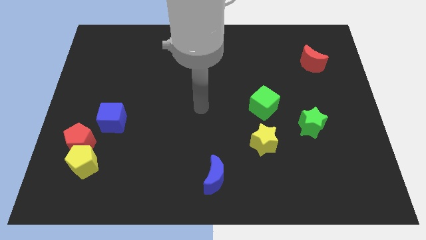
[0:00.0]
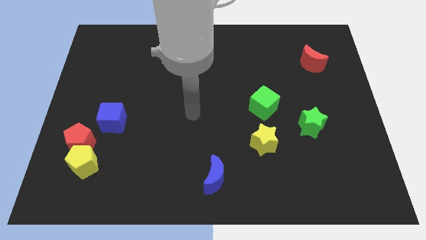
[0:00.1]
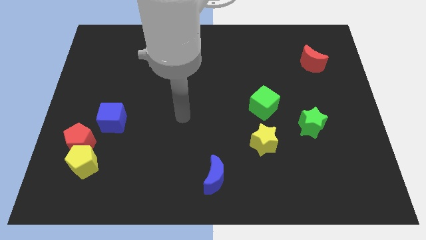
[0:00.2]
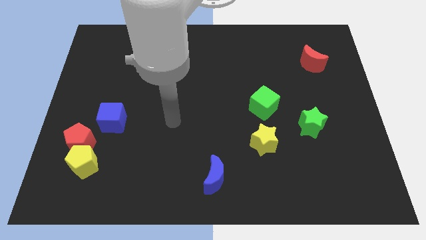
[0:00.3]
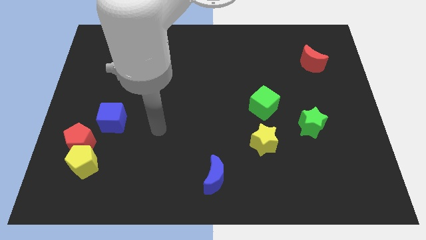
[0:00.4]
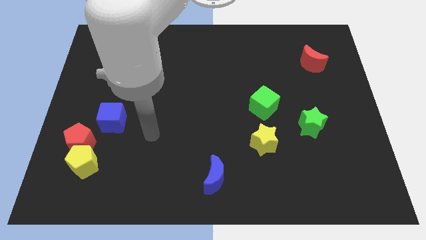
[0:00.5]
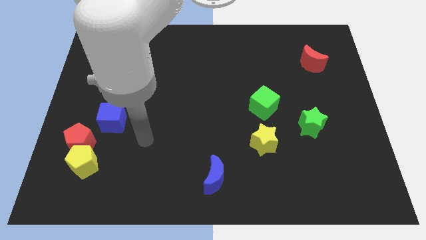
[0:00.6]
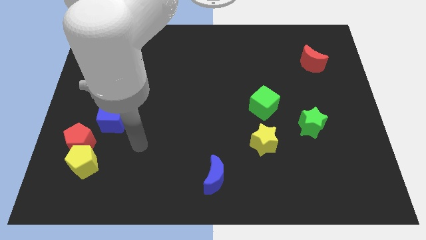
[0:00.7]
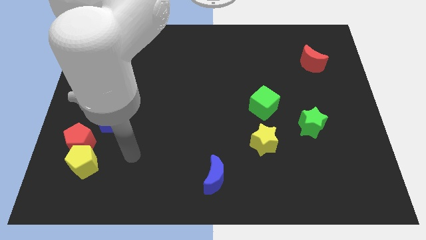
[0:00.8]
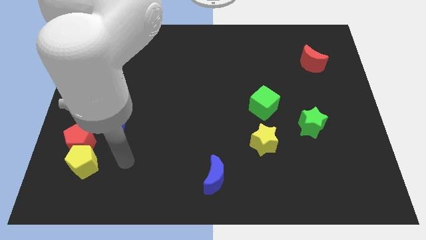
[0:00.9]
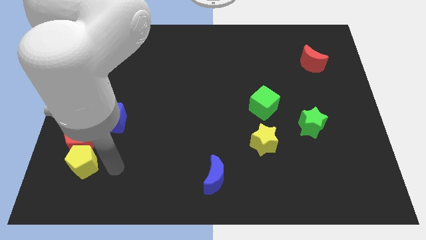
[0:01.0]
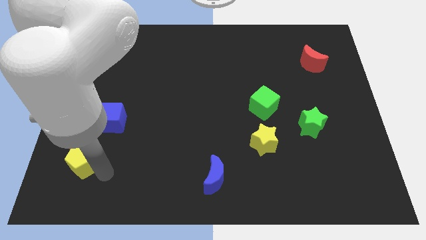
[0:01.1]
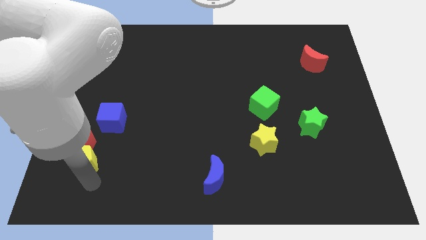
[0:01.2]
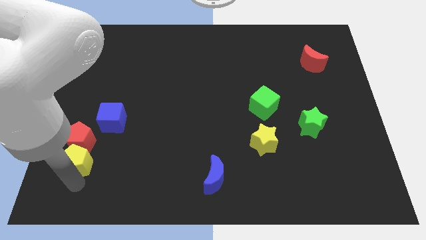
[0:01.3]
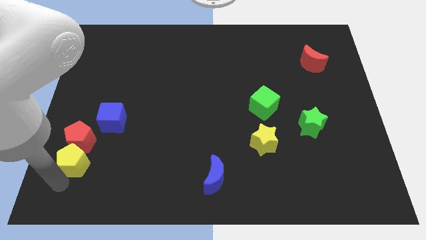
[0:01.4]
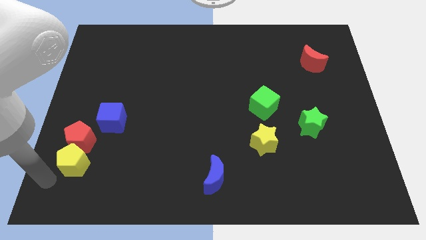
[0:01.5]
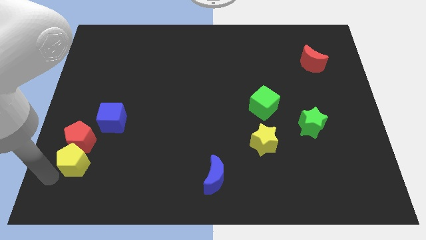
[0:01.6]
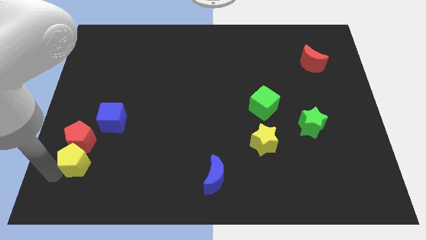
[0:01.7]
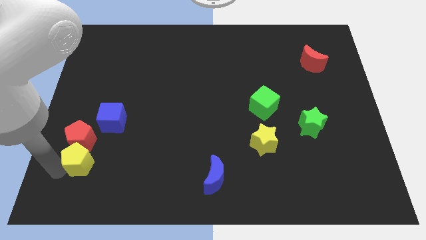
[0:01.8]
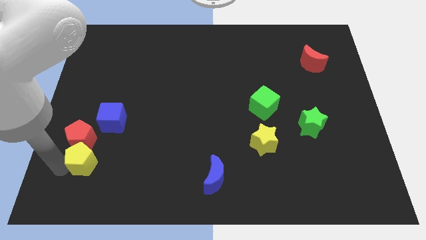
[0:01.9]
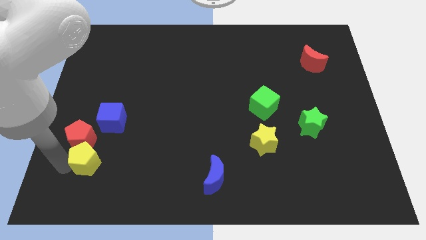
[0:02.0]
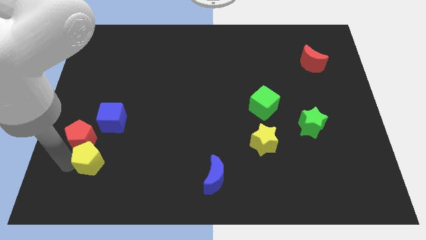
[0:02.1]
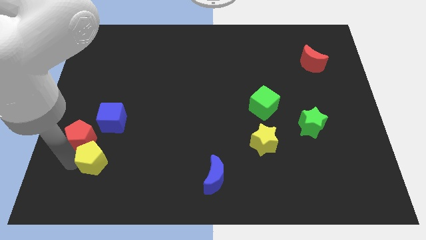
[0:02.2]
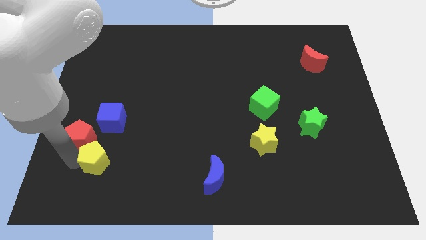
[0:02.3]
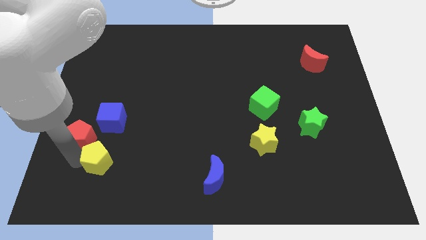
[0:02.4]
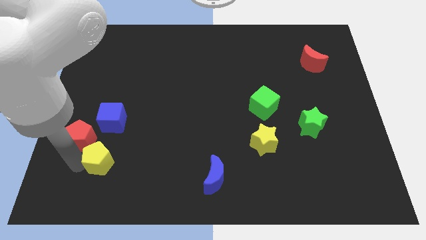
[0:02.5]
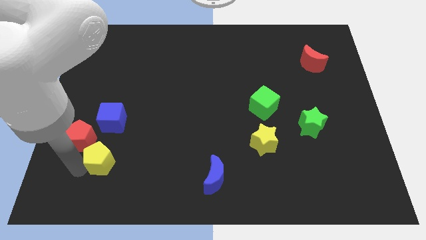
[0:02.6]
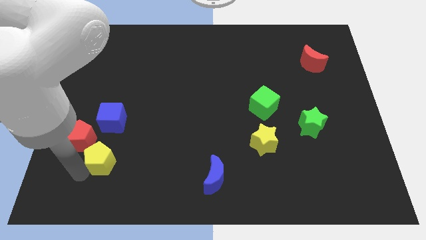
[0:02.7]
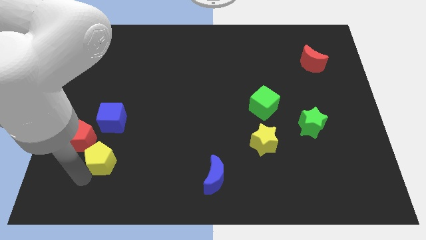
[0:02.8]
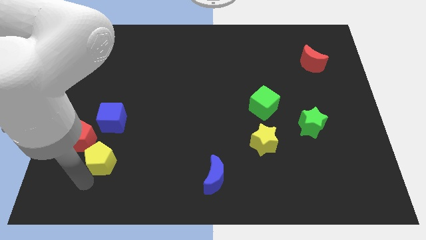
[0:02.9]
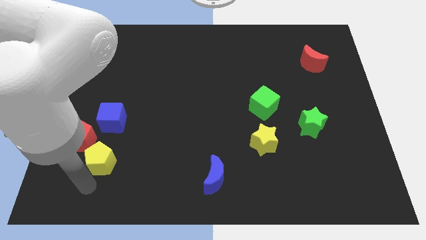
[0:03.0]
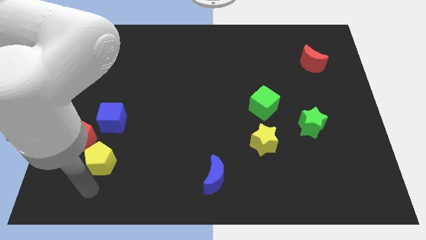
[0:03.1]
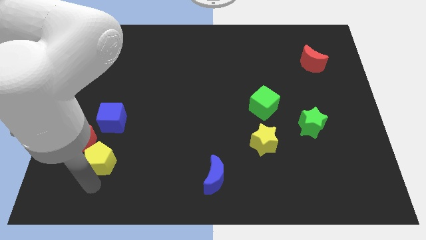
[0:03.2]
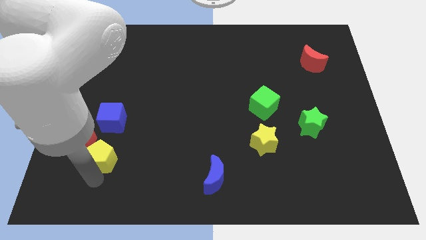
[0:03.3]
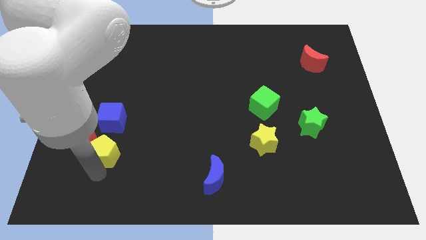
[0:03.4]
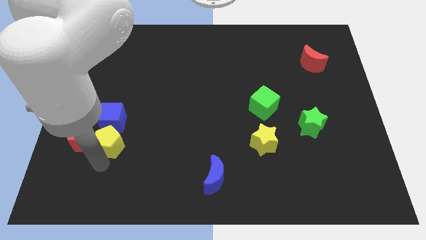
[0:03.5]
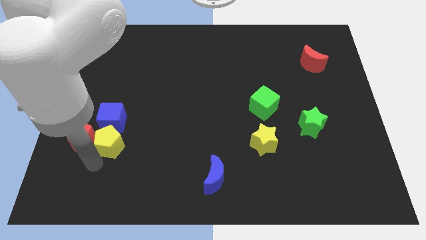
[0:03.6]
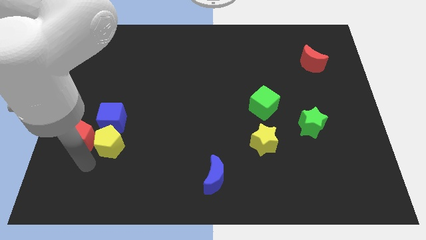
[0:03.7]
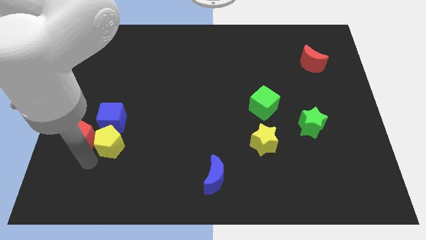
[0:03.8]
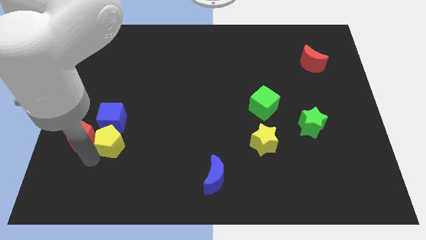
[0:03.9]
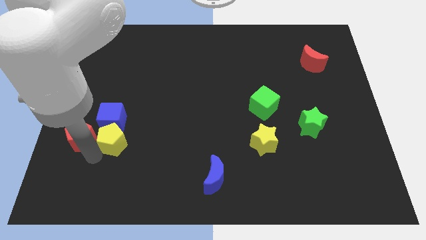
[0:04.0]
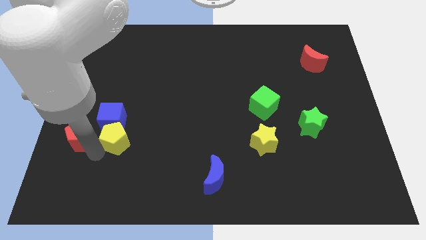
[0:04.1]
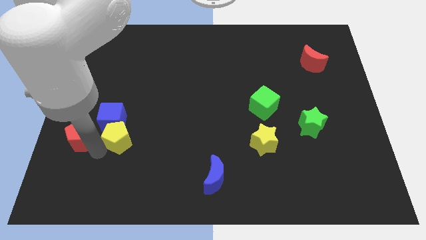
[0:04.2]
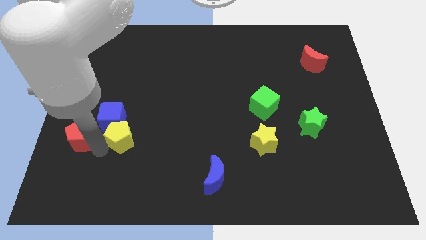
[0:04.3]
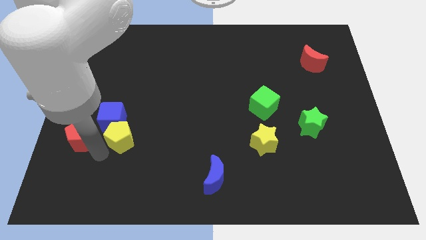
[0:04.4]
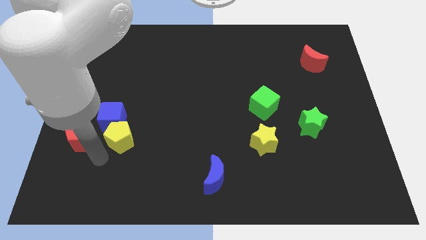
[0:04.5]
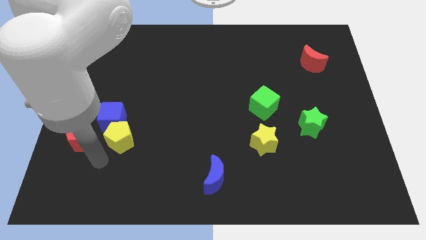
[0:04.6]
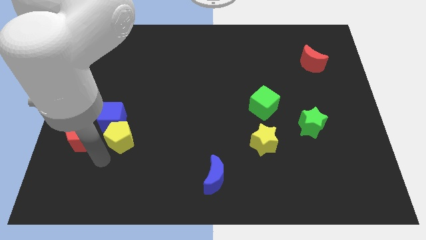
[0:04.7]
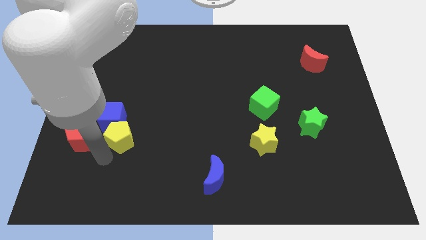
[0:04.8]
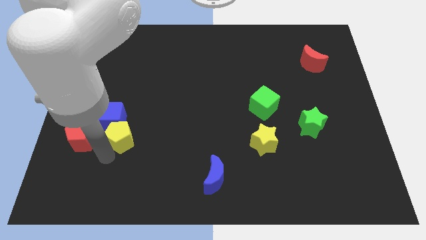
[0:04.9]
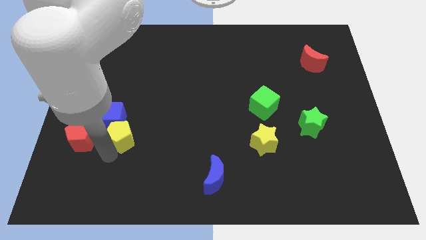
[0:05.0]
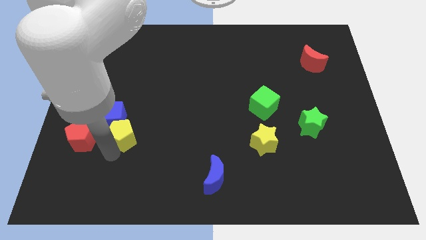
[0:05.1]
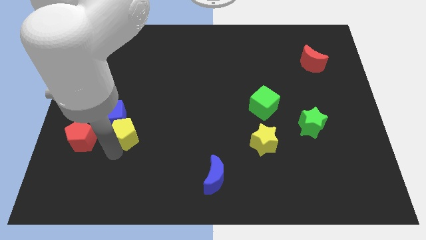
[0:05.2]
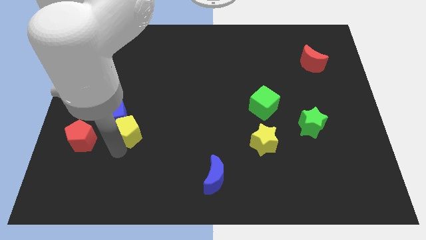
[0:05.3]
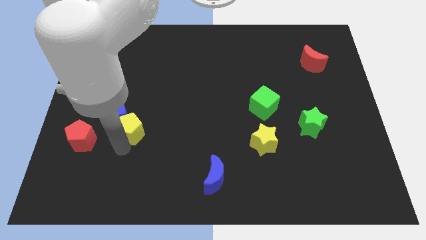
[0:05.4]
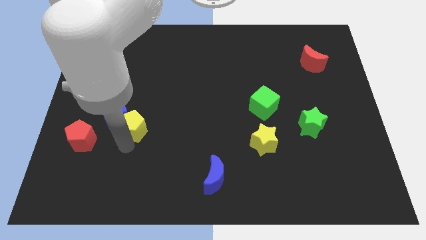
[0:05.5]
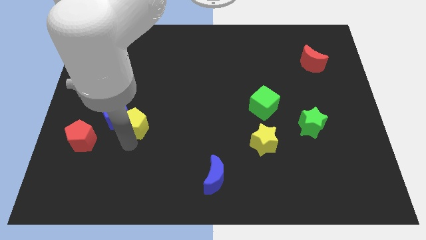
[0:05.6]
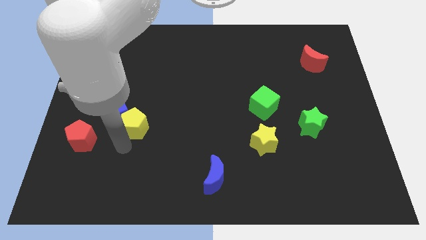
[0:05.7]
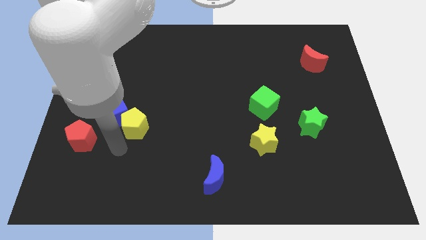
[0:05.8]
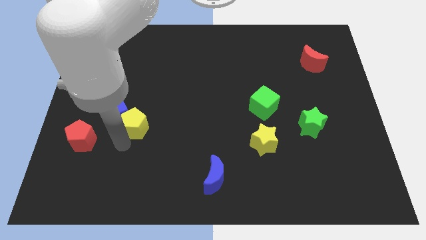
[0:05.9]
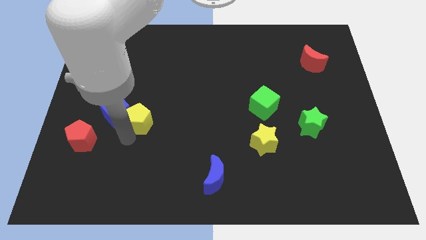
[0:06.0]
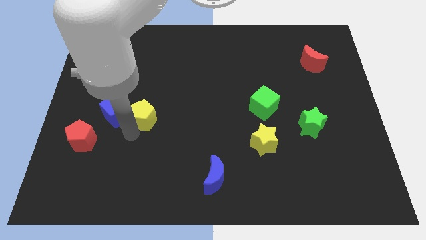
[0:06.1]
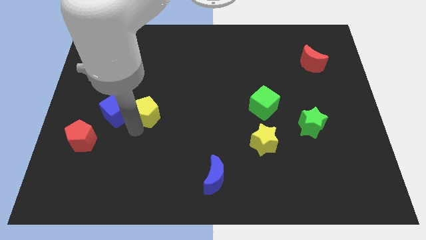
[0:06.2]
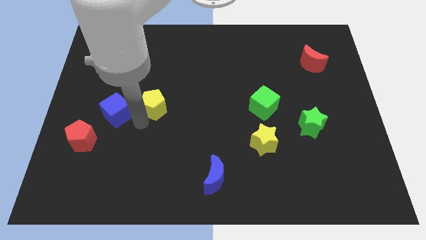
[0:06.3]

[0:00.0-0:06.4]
move the yellow pentagon up and right

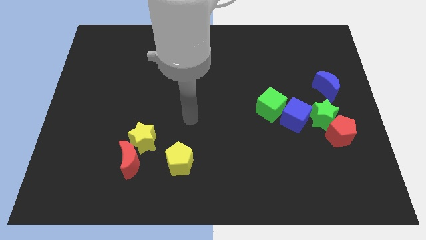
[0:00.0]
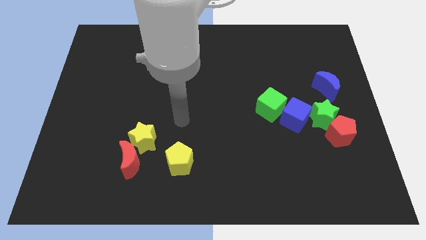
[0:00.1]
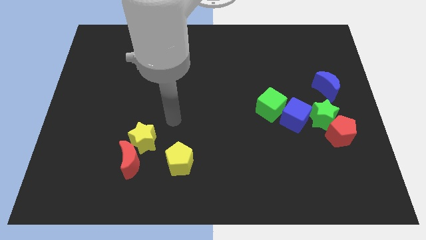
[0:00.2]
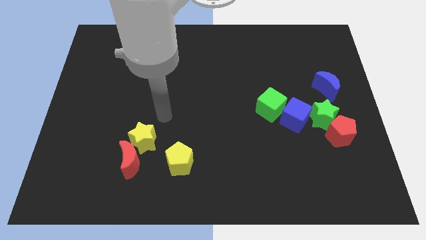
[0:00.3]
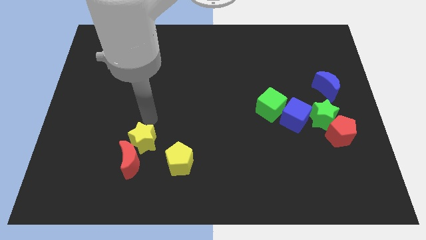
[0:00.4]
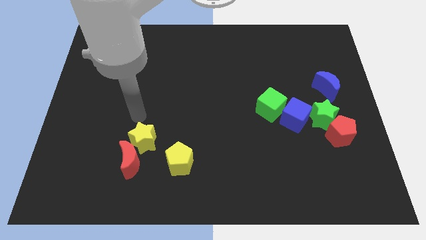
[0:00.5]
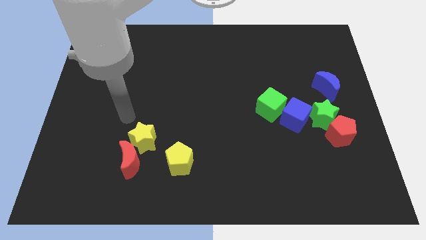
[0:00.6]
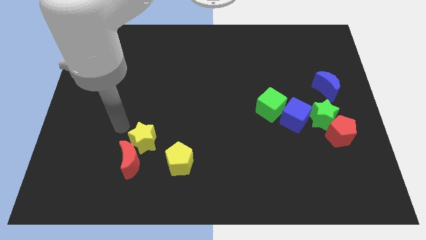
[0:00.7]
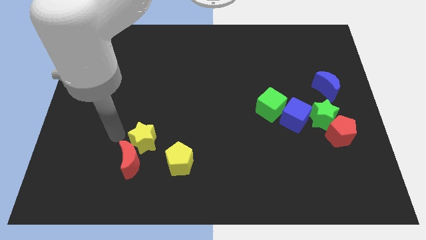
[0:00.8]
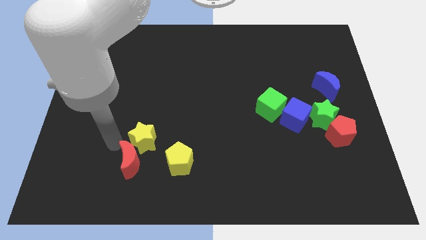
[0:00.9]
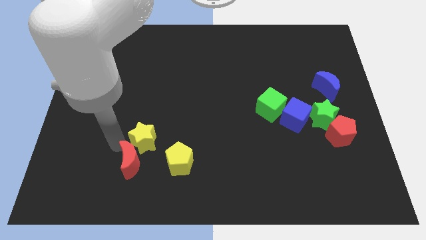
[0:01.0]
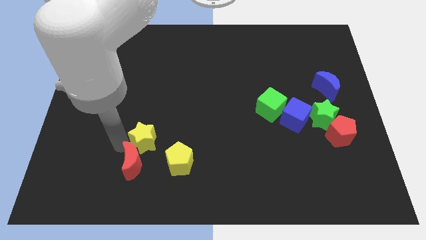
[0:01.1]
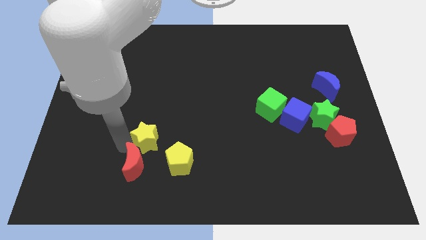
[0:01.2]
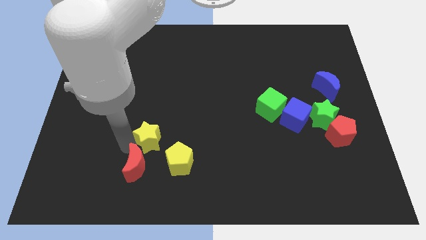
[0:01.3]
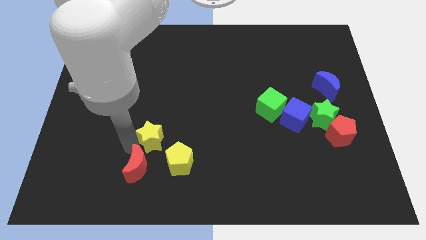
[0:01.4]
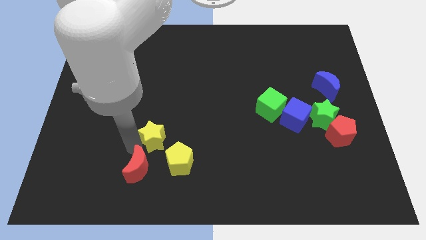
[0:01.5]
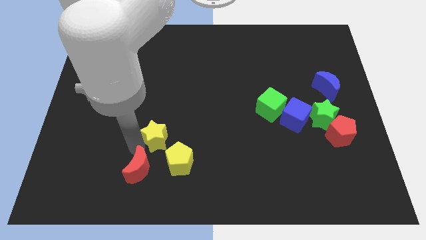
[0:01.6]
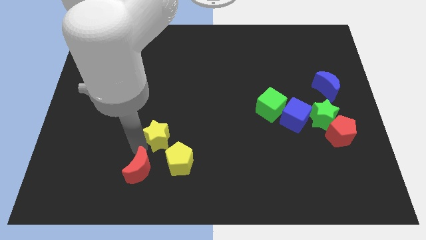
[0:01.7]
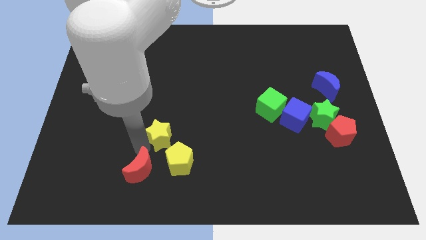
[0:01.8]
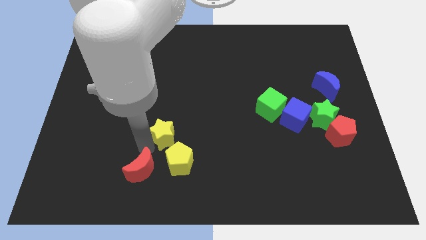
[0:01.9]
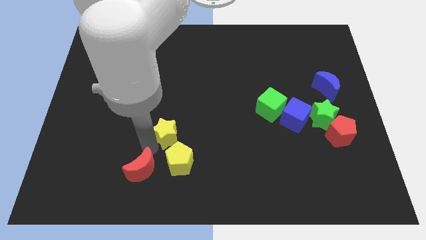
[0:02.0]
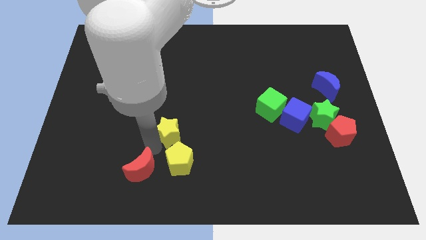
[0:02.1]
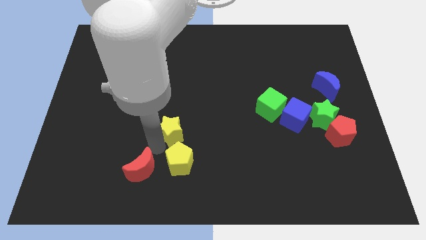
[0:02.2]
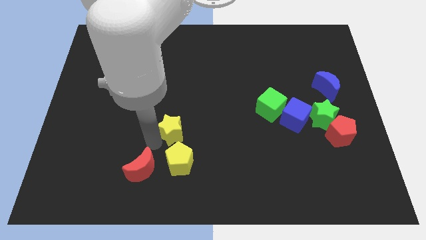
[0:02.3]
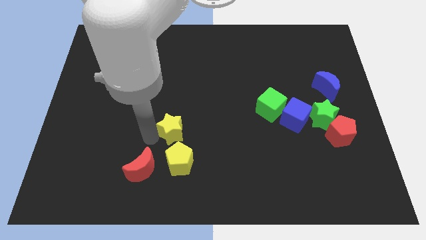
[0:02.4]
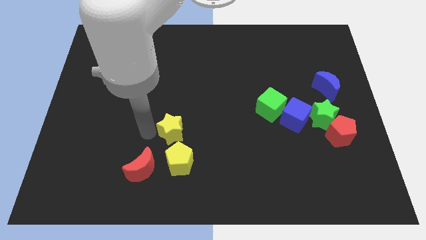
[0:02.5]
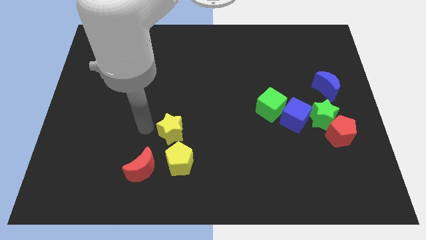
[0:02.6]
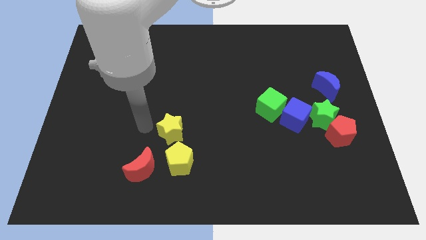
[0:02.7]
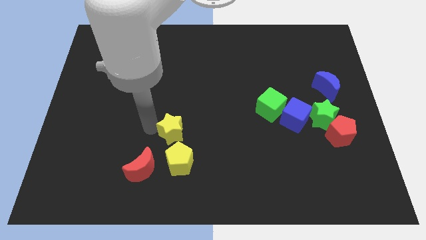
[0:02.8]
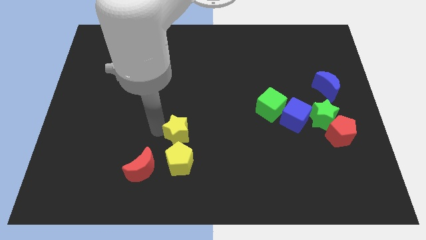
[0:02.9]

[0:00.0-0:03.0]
slide the yellow star slightly to the right
